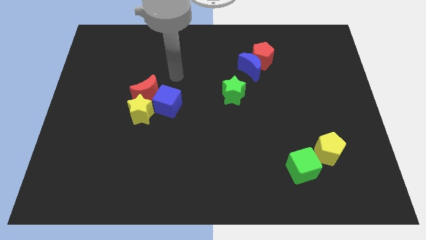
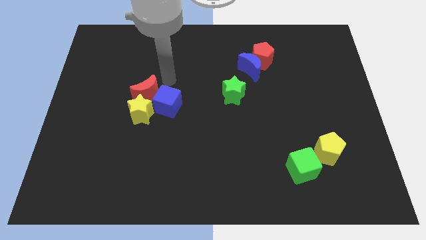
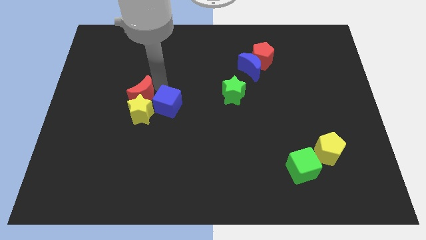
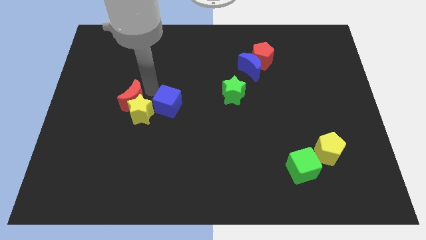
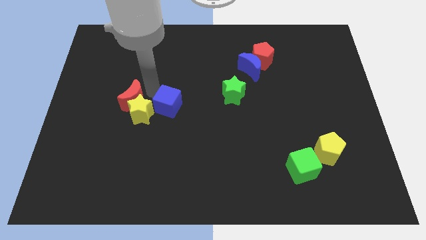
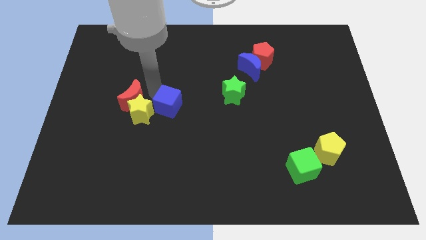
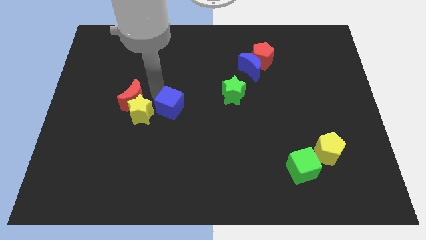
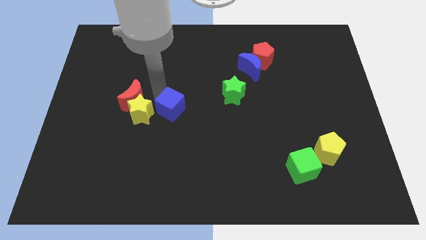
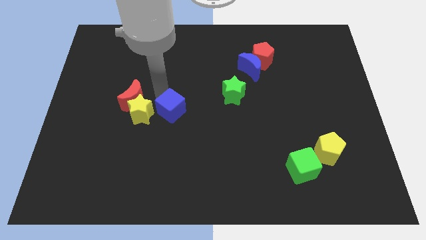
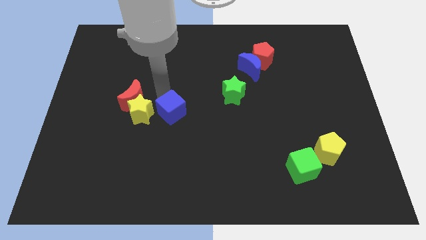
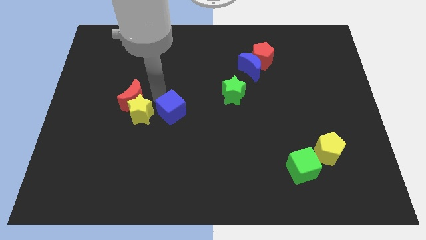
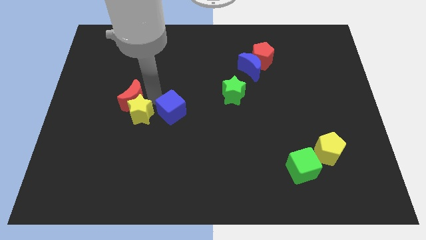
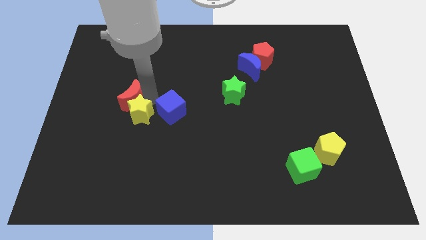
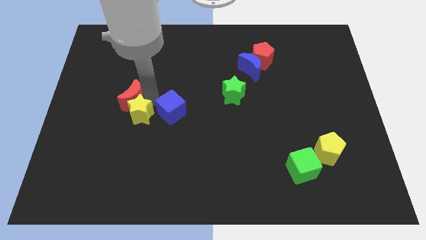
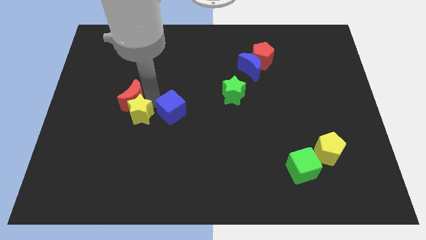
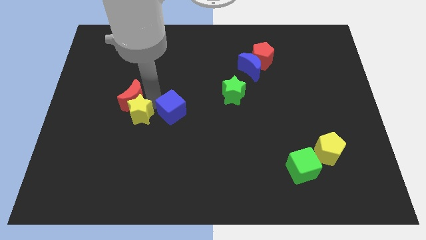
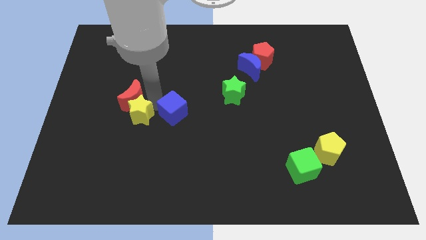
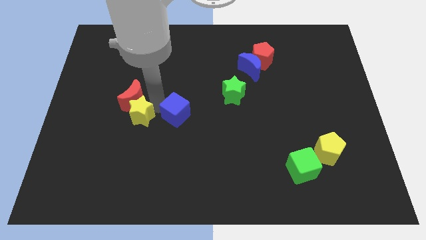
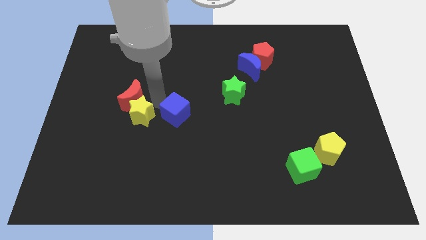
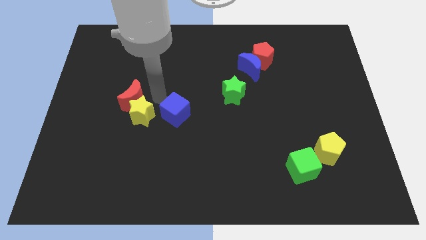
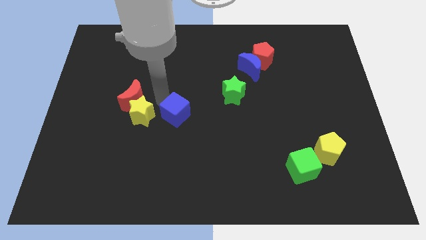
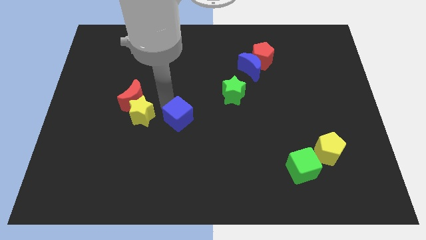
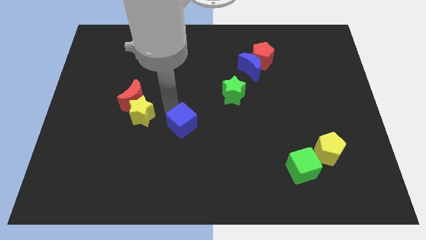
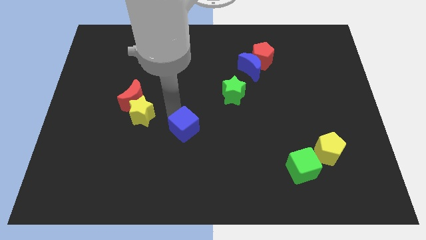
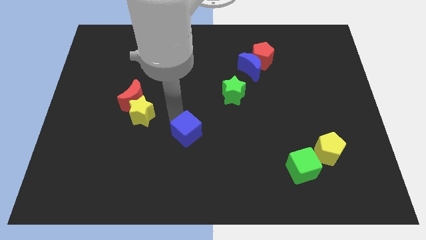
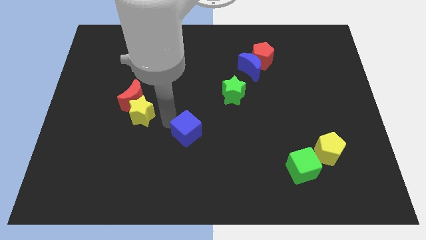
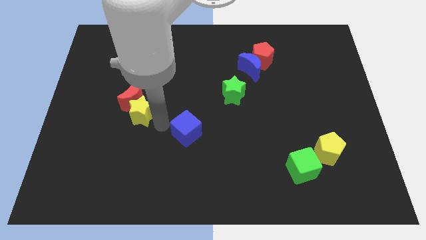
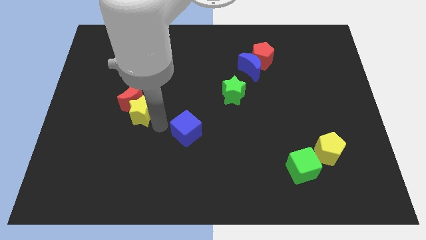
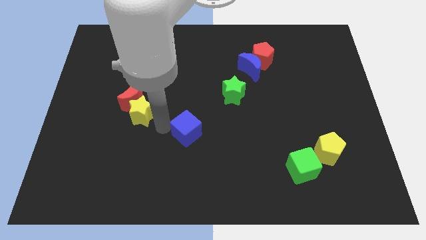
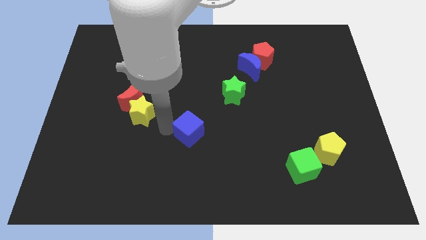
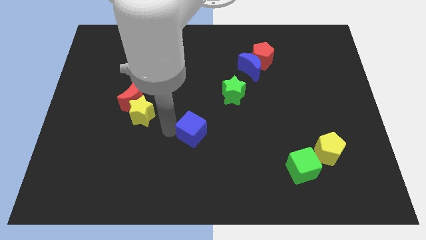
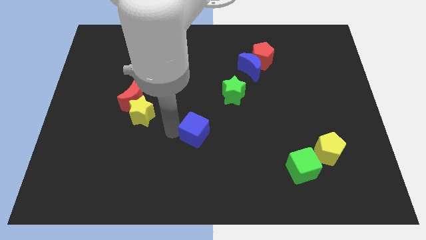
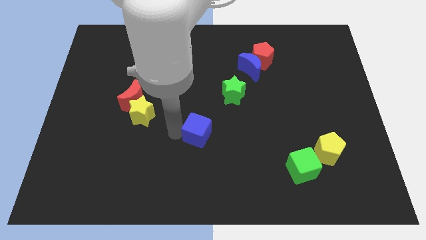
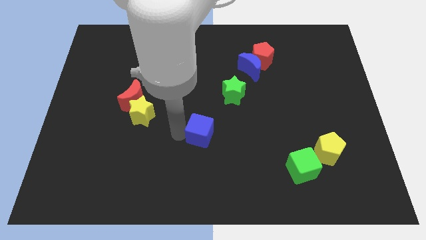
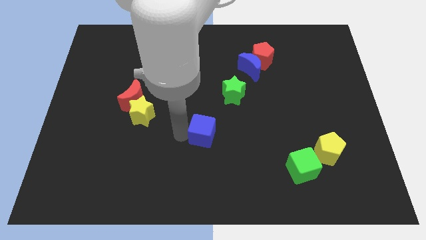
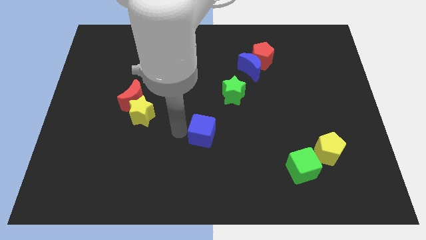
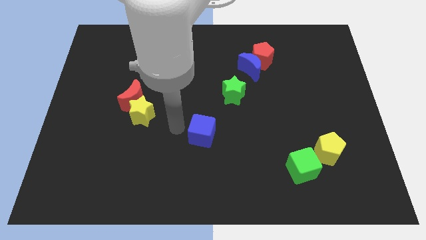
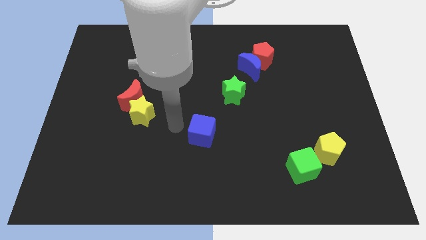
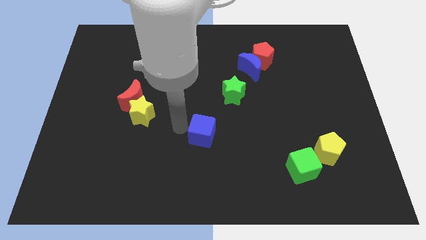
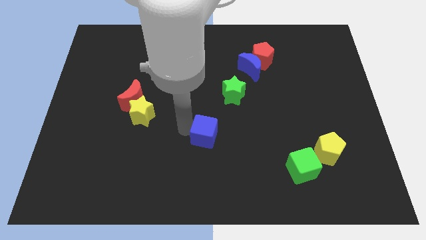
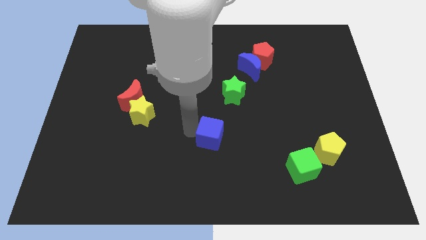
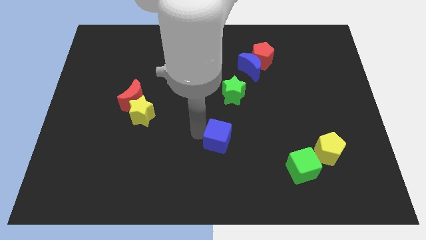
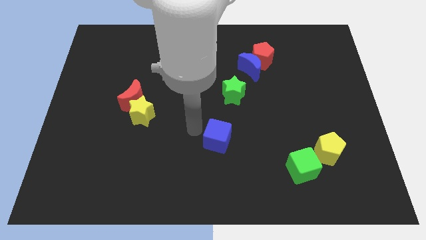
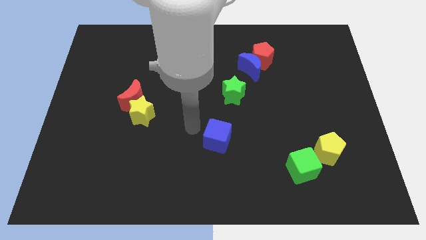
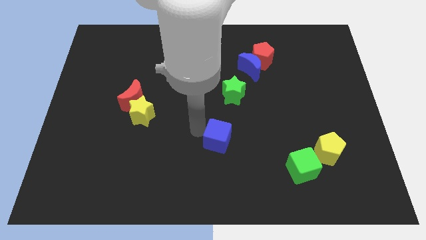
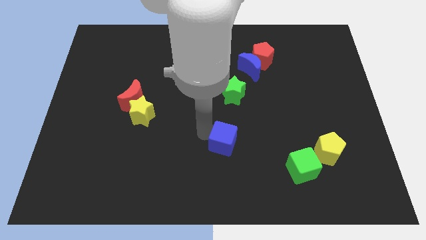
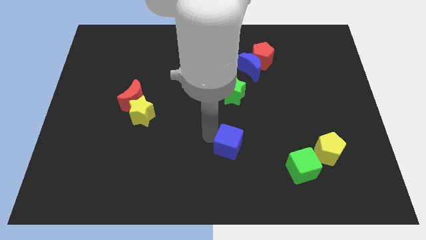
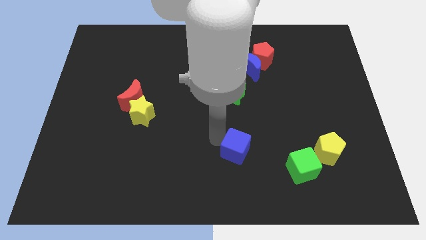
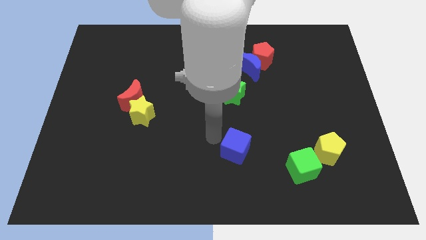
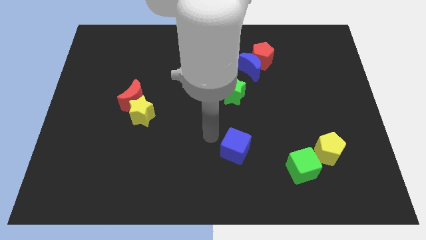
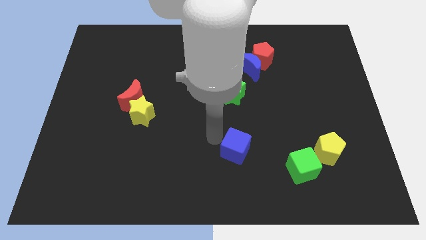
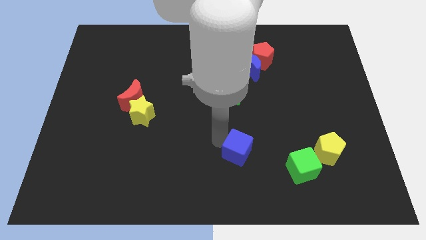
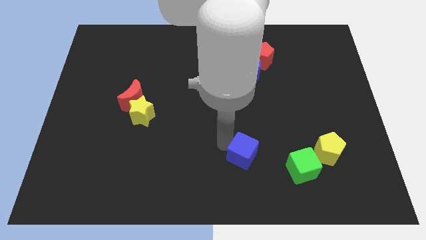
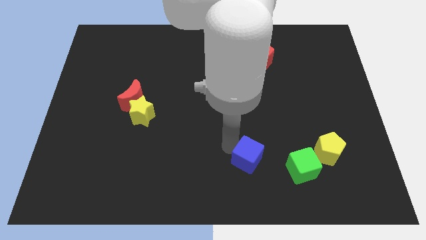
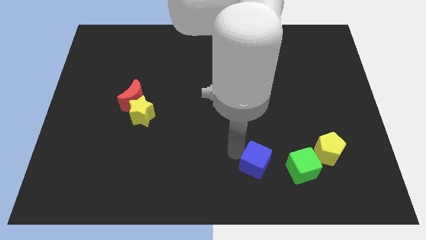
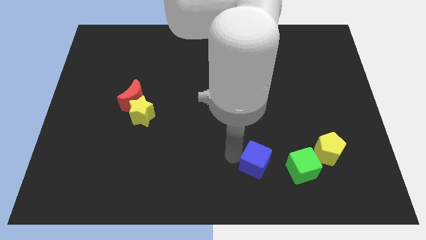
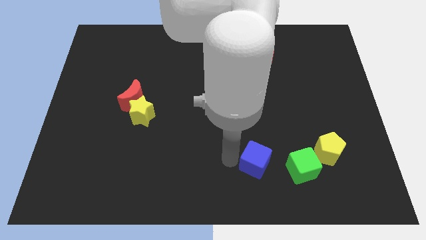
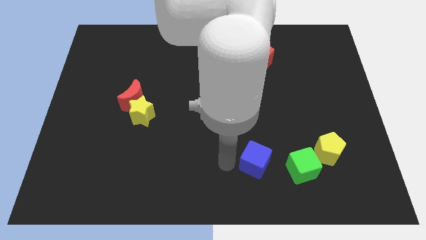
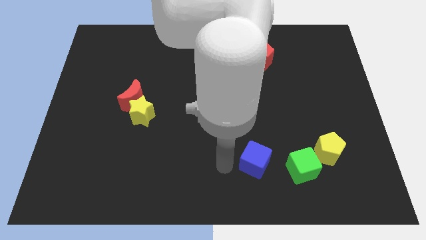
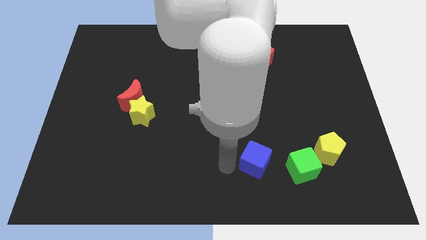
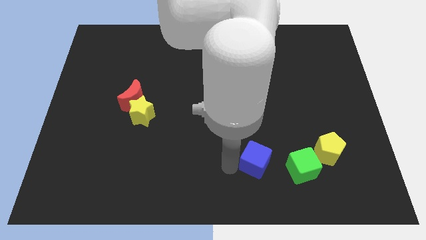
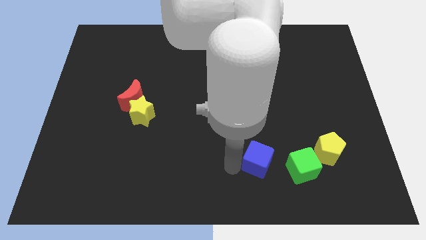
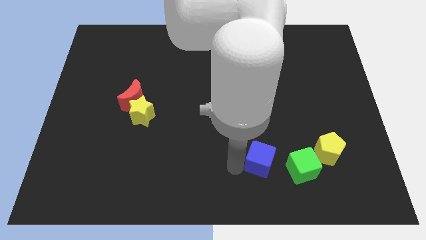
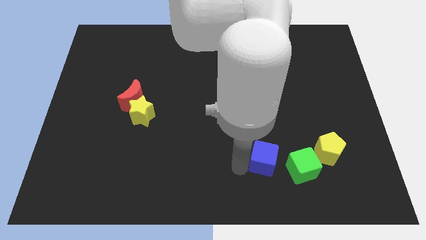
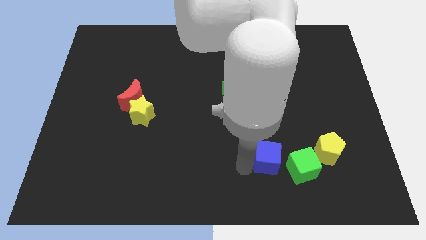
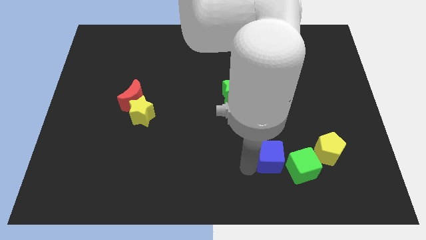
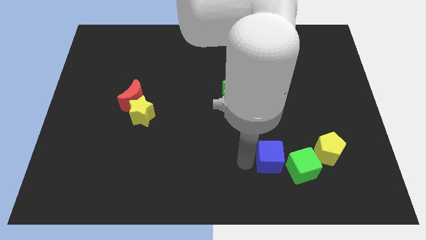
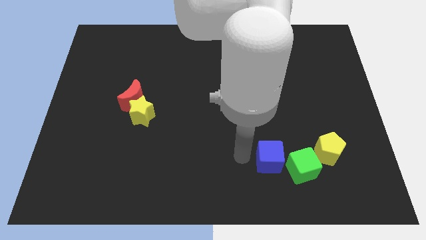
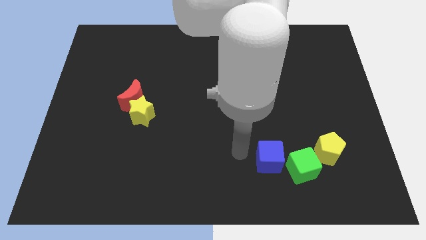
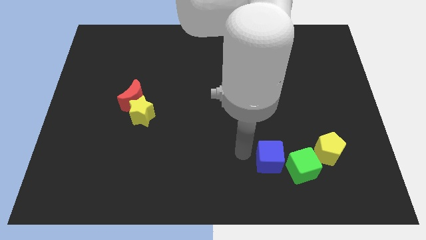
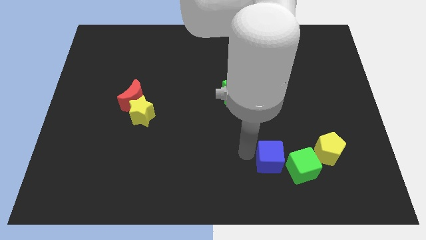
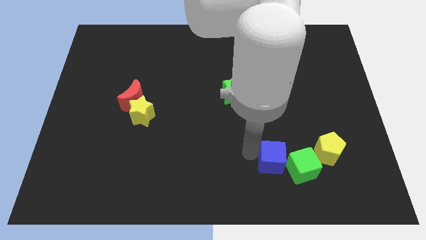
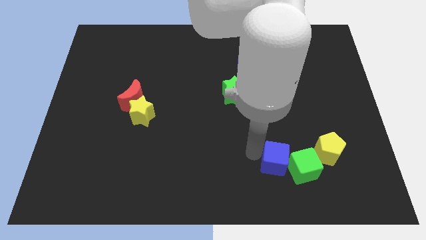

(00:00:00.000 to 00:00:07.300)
slide the blue cube close to the green cube
